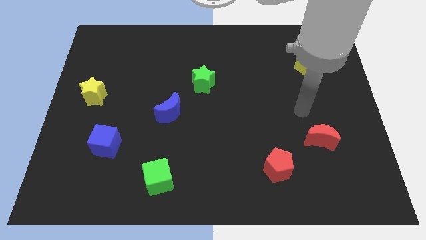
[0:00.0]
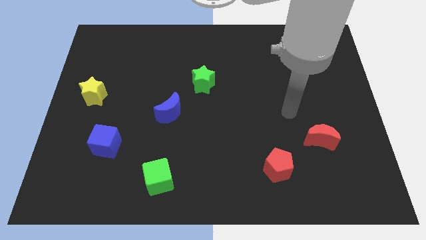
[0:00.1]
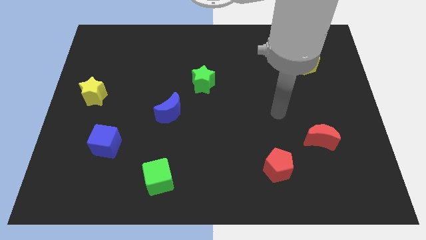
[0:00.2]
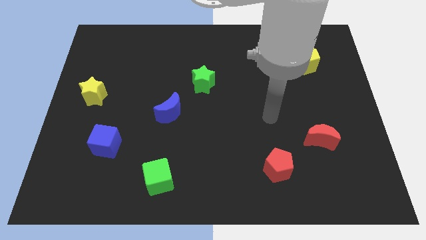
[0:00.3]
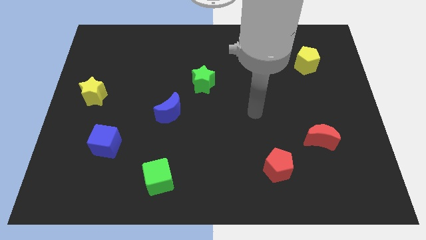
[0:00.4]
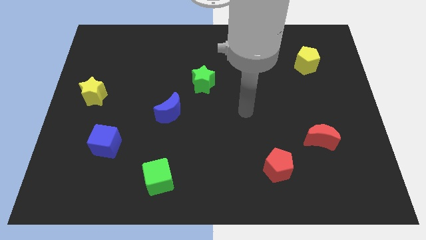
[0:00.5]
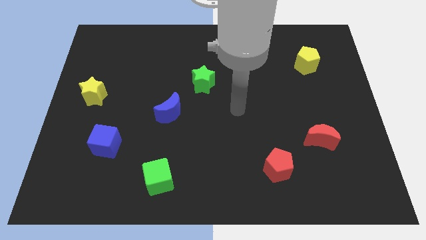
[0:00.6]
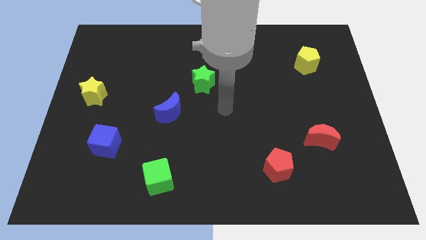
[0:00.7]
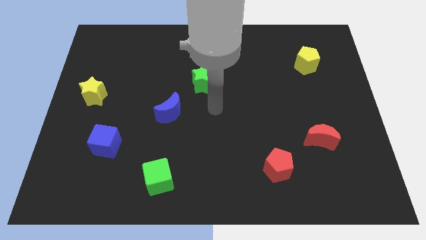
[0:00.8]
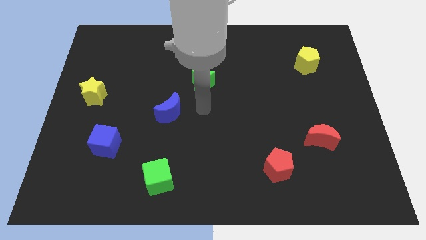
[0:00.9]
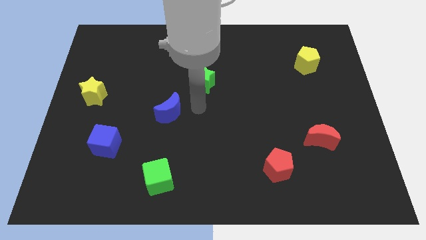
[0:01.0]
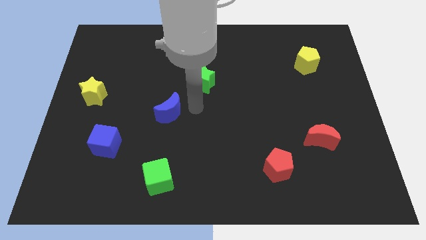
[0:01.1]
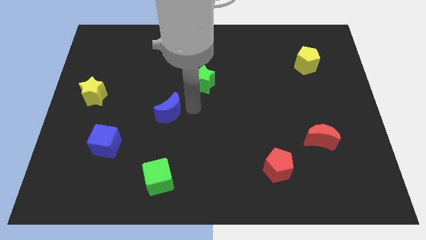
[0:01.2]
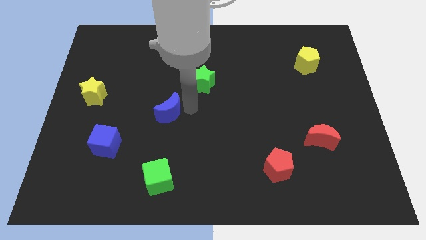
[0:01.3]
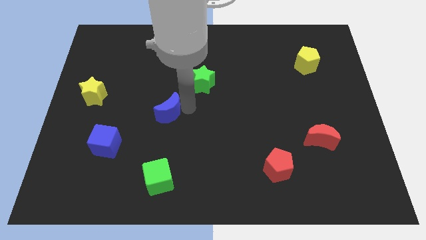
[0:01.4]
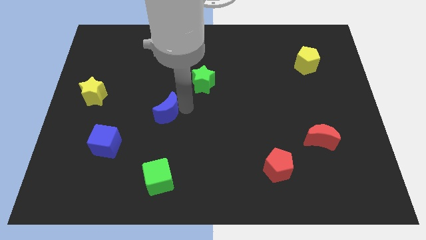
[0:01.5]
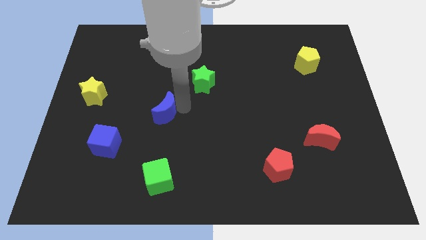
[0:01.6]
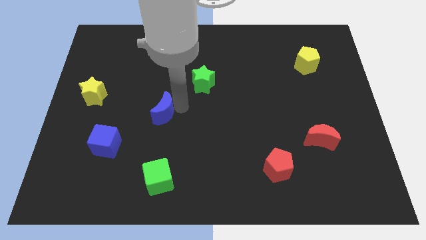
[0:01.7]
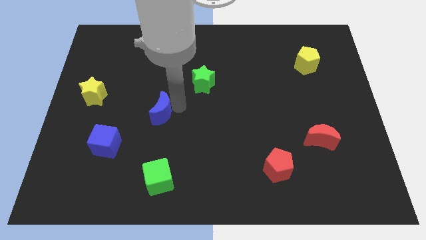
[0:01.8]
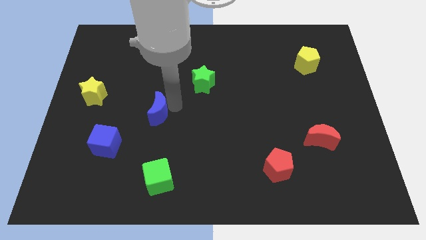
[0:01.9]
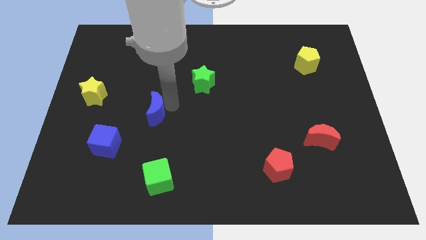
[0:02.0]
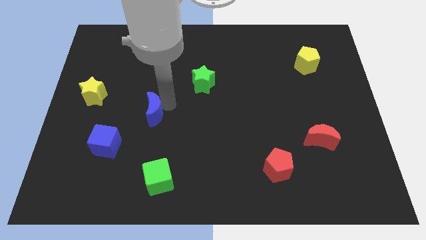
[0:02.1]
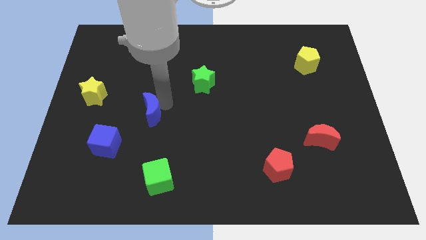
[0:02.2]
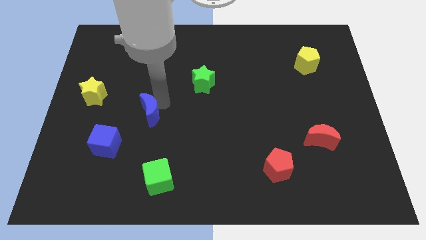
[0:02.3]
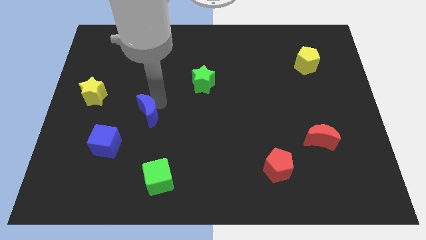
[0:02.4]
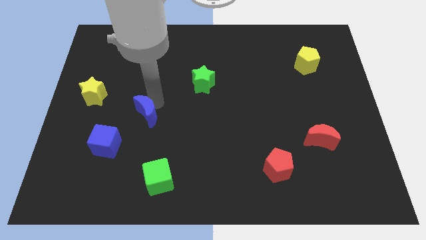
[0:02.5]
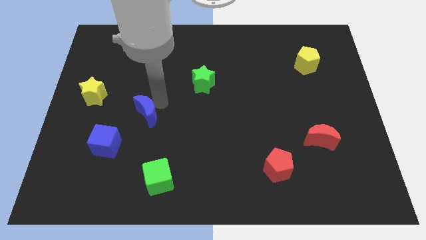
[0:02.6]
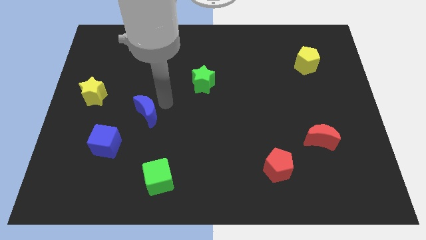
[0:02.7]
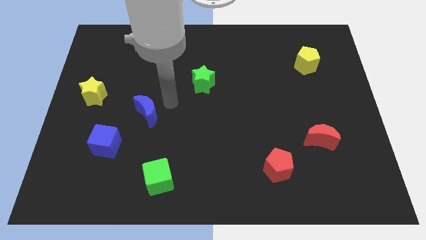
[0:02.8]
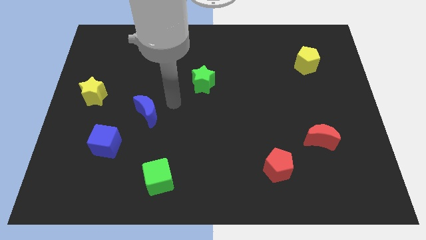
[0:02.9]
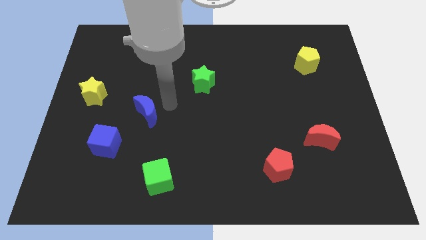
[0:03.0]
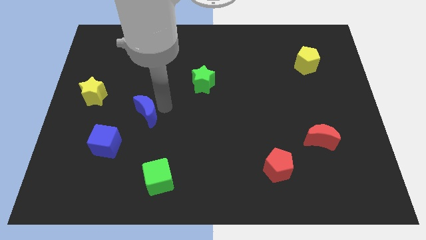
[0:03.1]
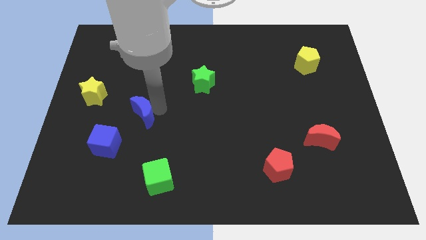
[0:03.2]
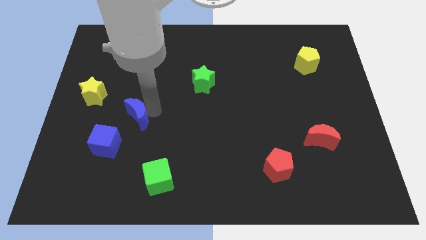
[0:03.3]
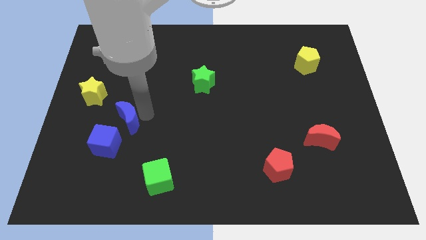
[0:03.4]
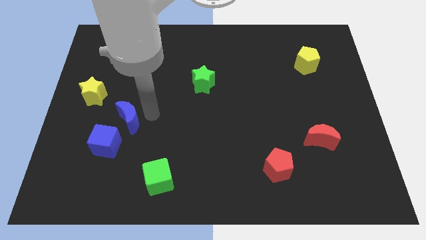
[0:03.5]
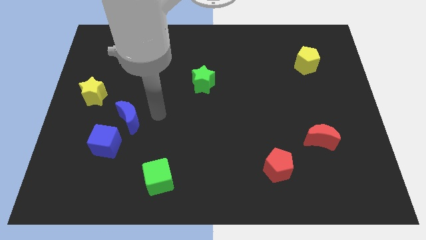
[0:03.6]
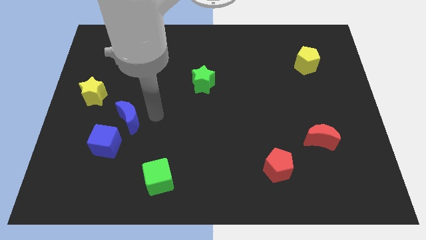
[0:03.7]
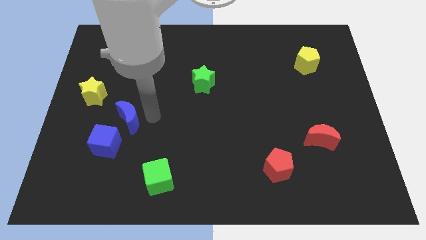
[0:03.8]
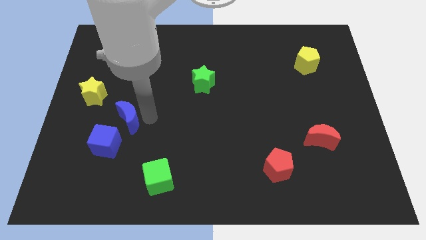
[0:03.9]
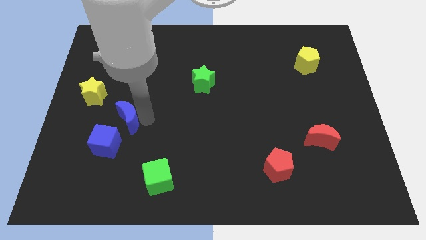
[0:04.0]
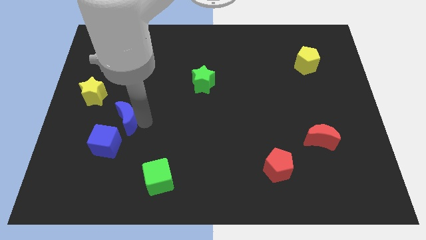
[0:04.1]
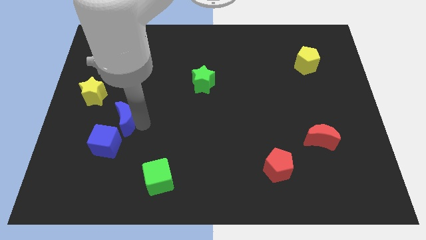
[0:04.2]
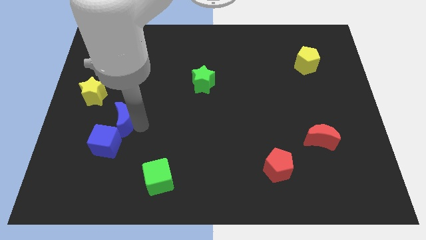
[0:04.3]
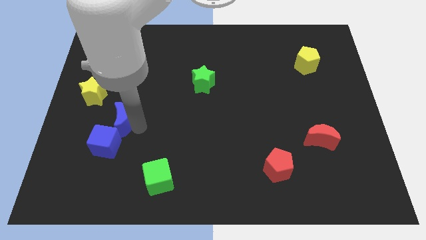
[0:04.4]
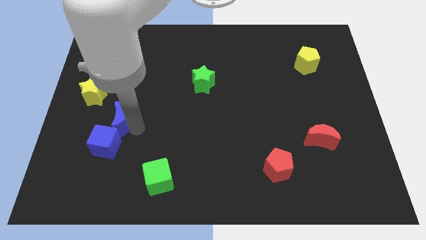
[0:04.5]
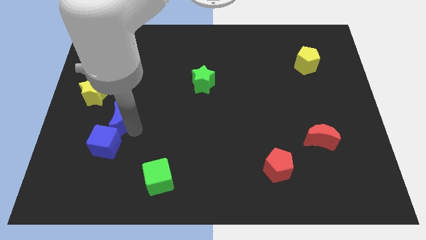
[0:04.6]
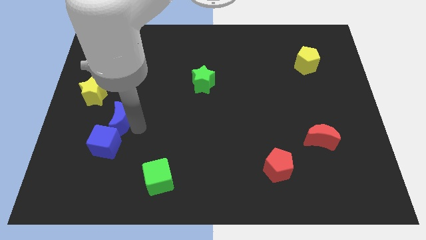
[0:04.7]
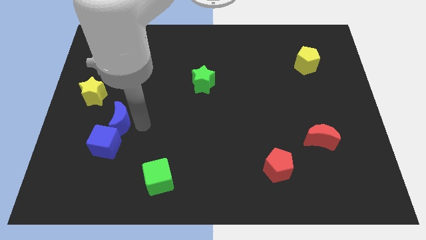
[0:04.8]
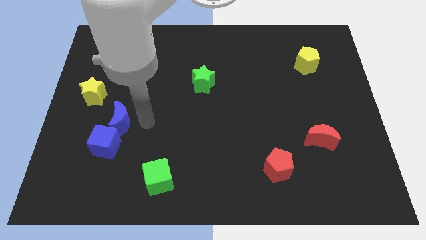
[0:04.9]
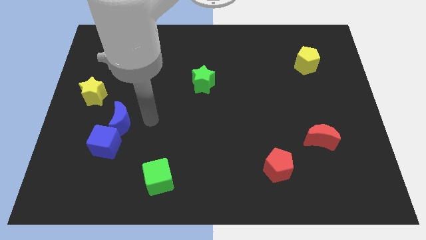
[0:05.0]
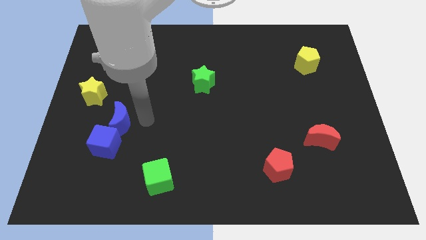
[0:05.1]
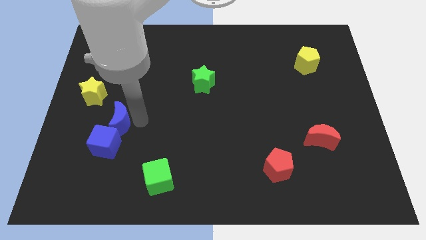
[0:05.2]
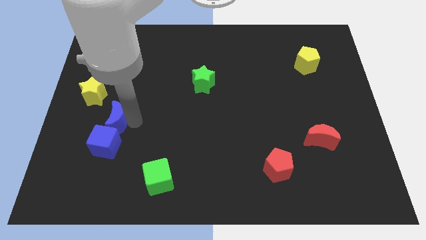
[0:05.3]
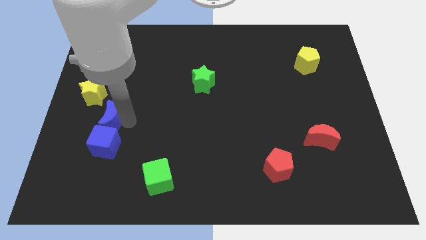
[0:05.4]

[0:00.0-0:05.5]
put the blue moon to the top left side of the blue cube

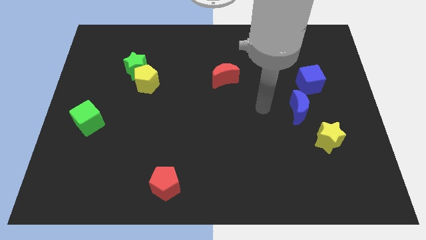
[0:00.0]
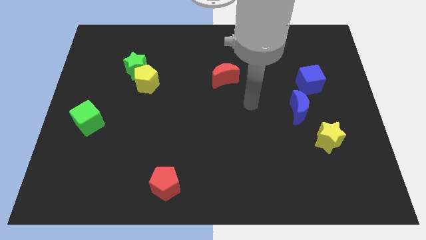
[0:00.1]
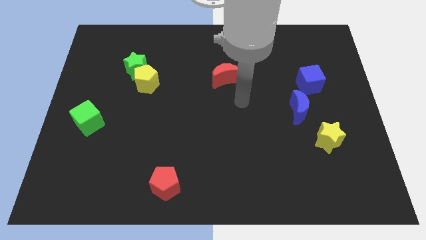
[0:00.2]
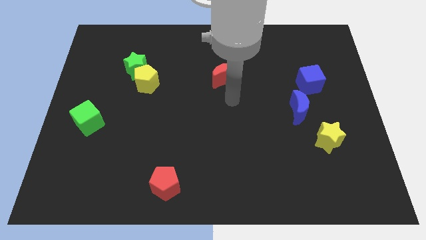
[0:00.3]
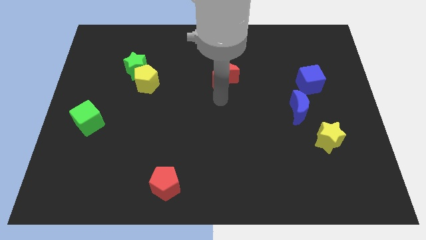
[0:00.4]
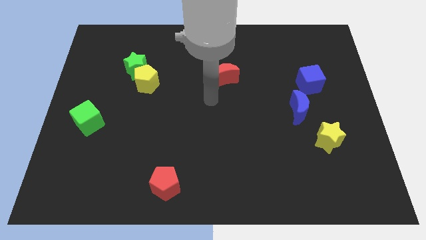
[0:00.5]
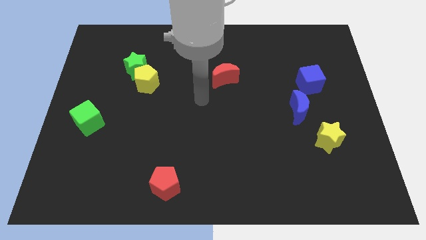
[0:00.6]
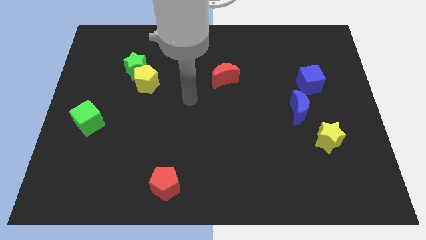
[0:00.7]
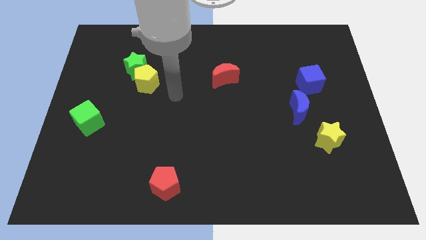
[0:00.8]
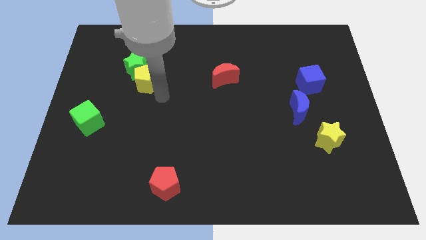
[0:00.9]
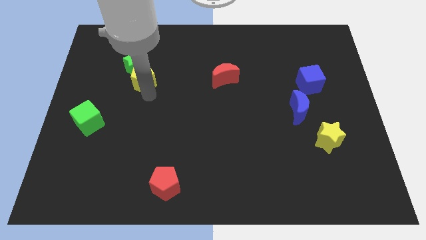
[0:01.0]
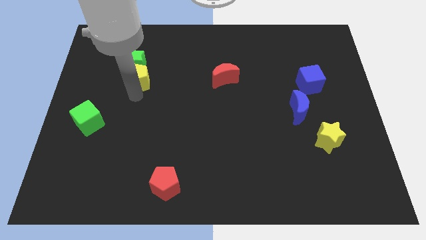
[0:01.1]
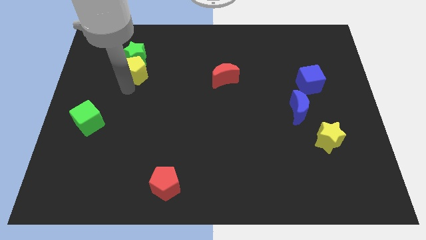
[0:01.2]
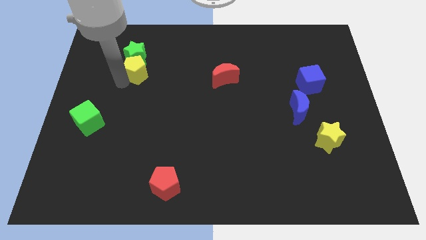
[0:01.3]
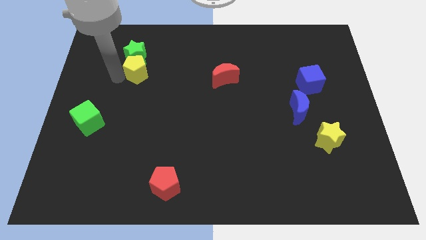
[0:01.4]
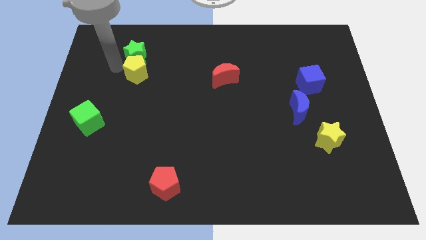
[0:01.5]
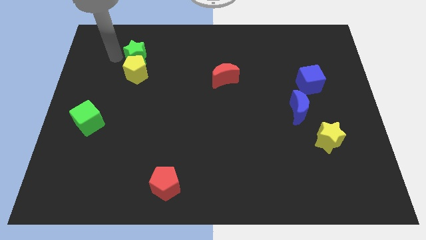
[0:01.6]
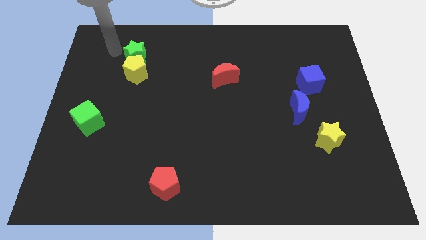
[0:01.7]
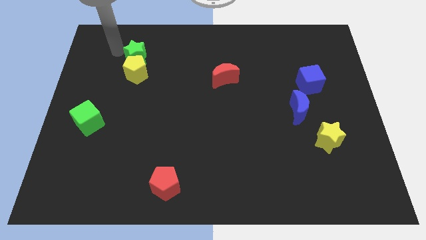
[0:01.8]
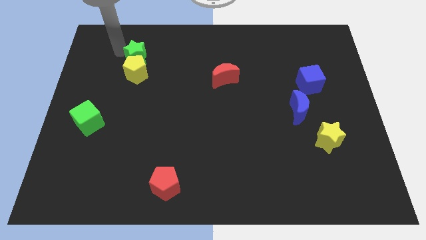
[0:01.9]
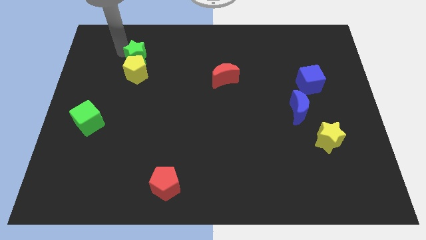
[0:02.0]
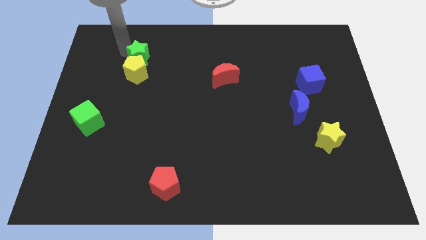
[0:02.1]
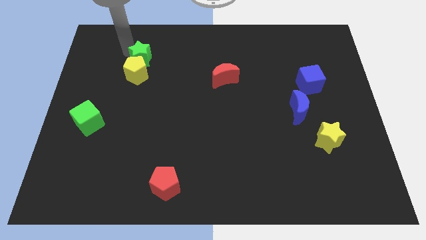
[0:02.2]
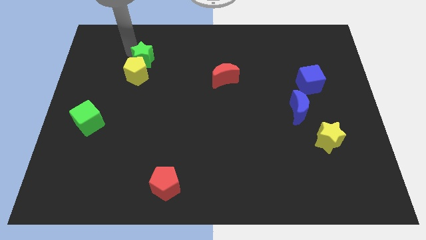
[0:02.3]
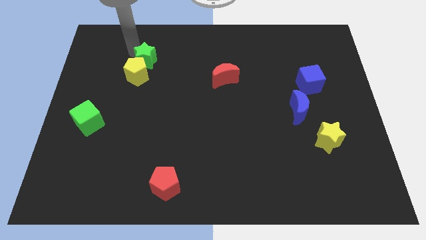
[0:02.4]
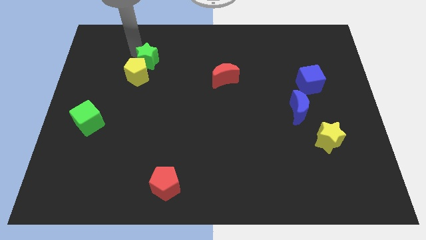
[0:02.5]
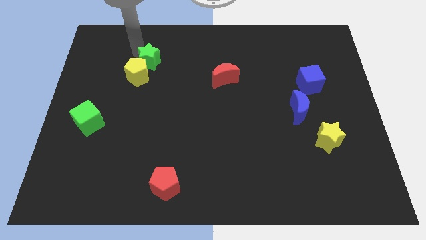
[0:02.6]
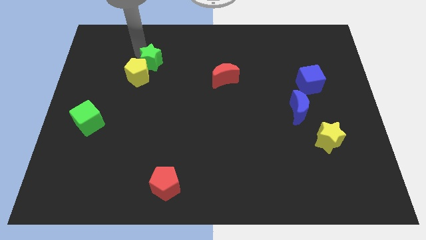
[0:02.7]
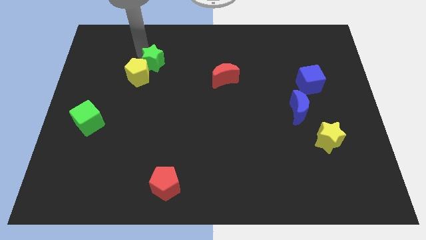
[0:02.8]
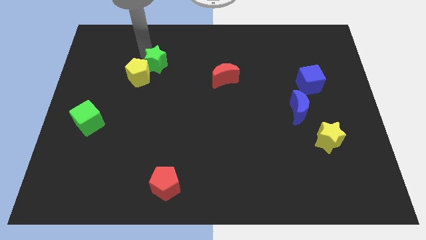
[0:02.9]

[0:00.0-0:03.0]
move the green star right of the yellow pentagon
